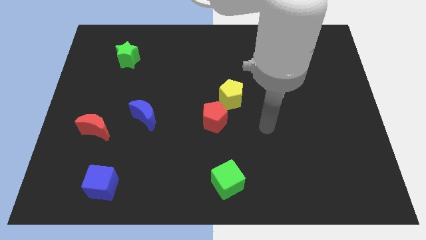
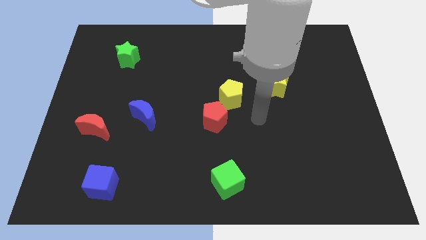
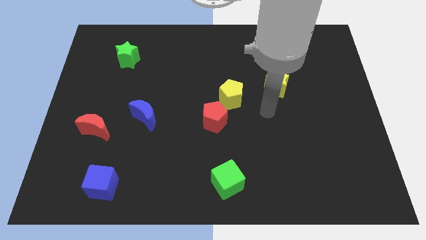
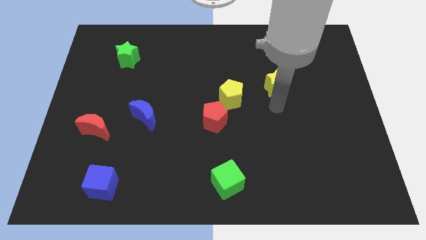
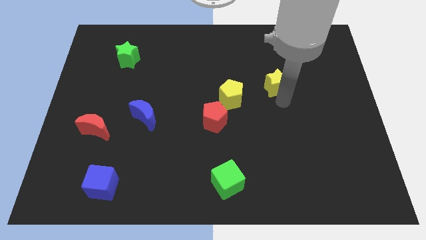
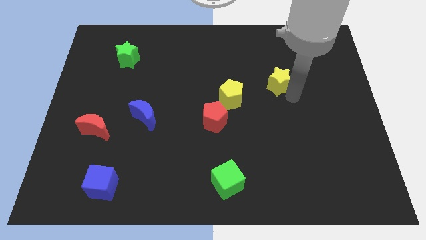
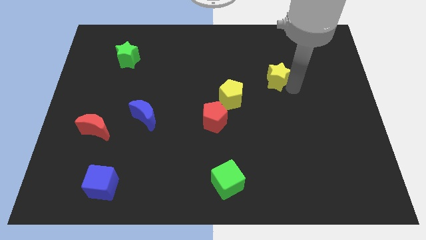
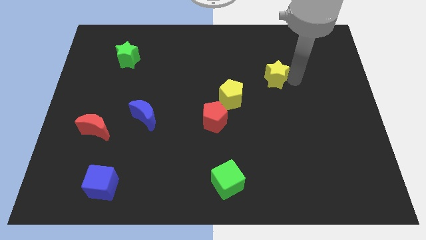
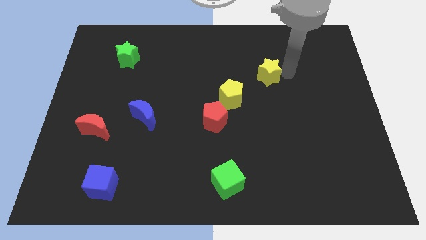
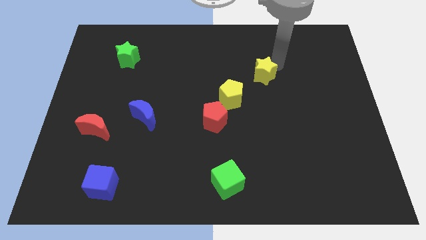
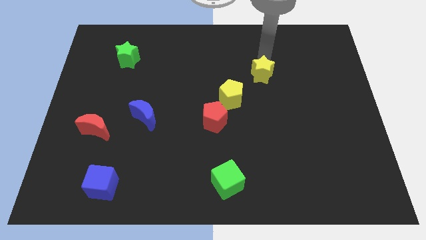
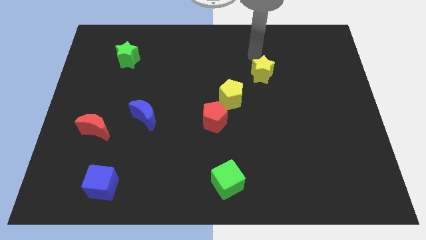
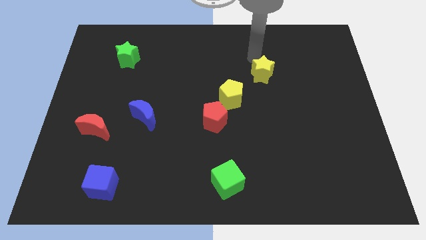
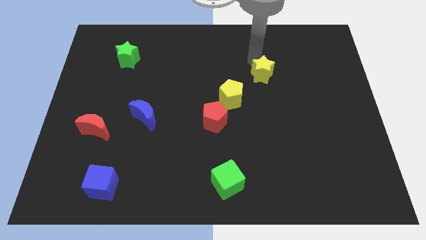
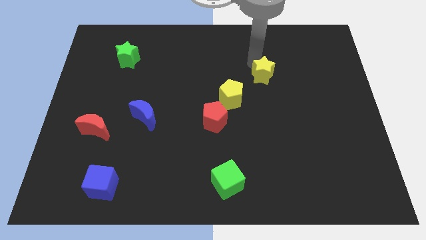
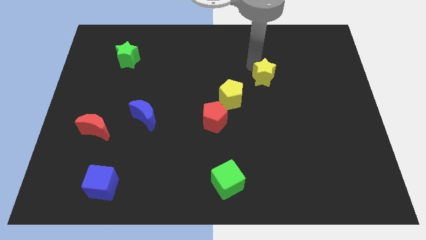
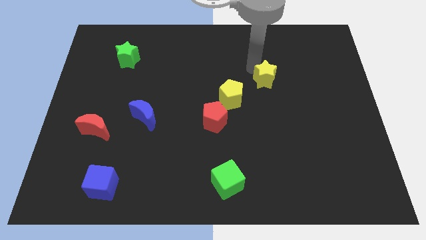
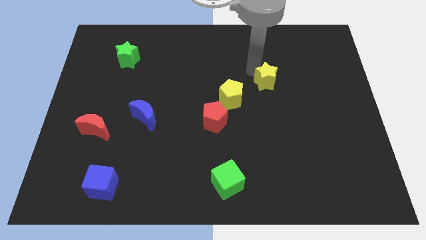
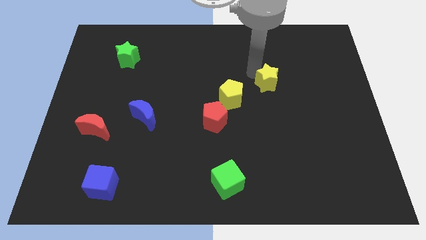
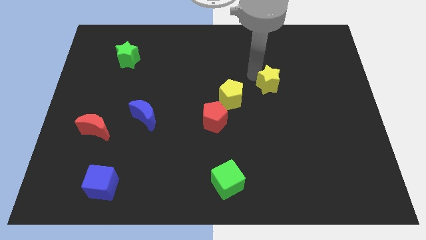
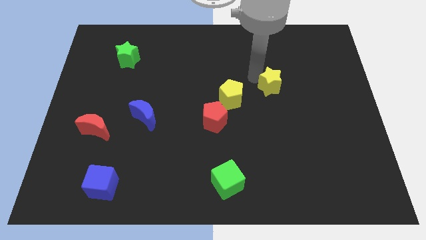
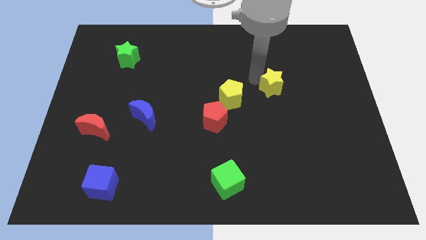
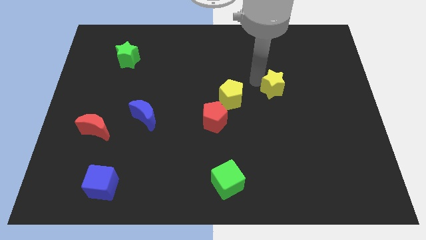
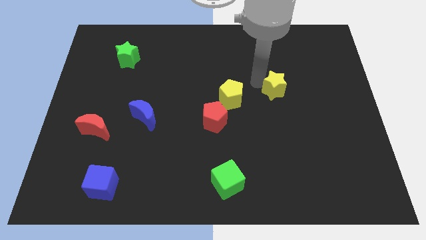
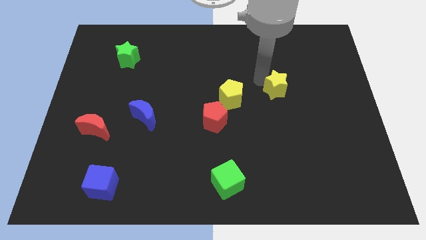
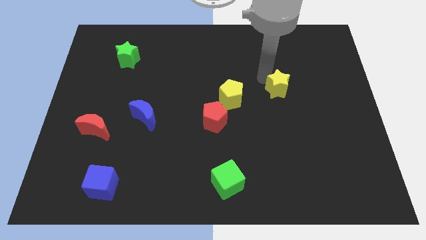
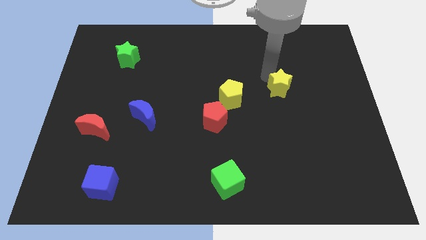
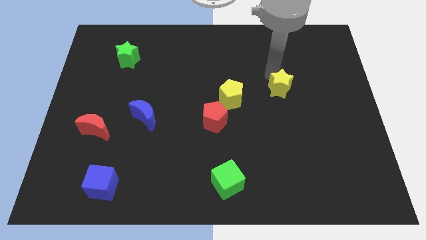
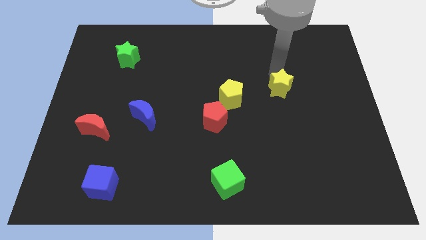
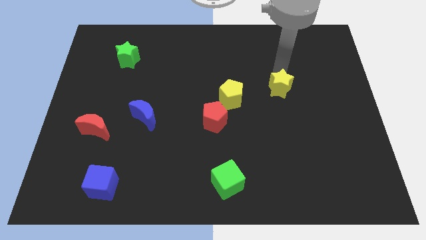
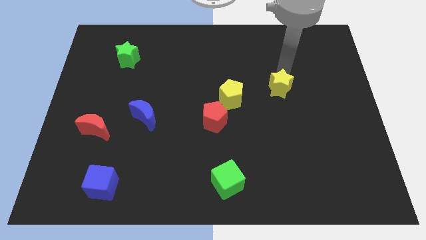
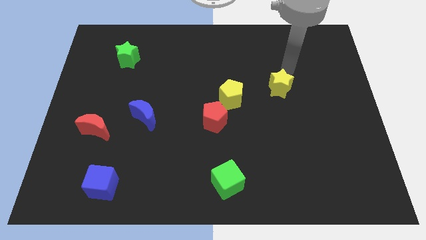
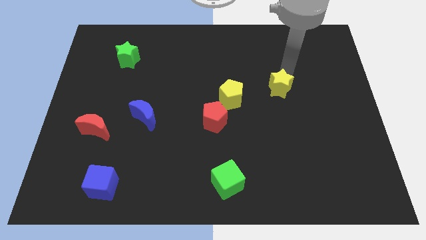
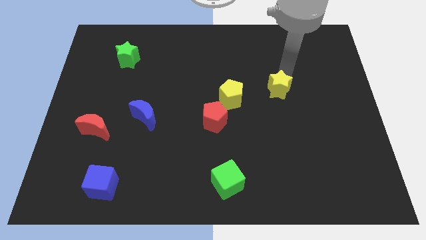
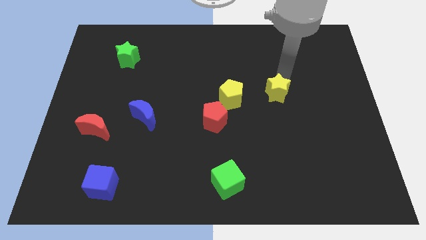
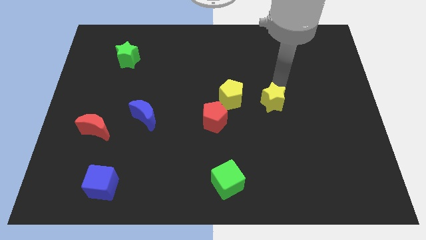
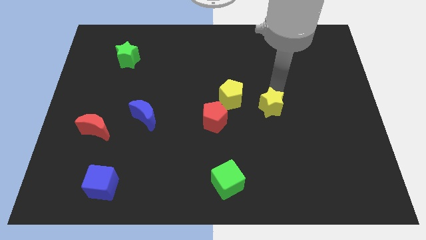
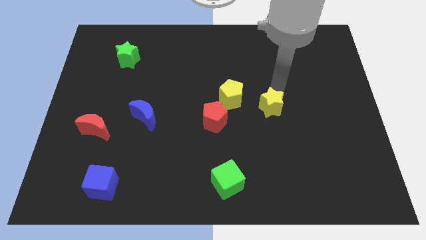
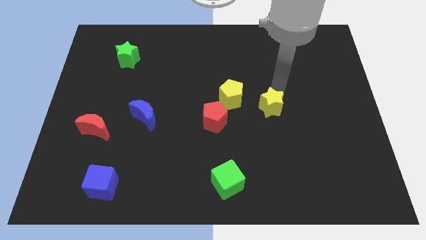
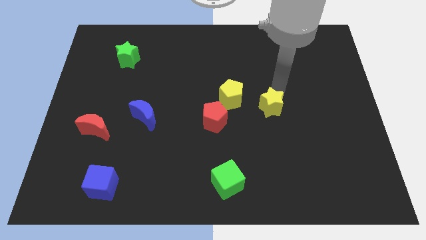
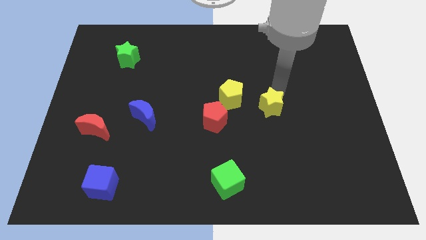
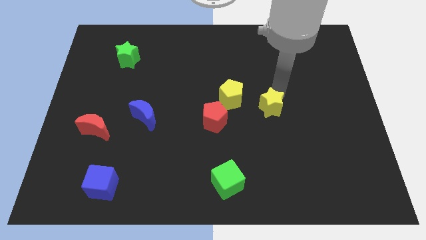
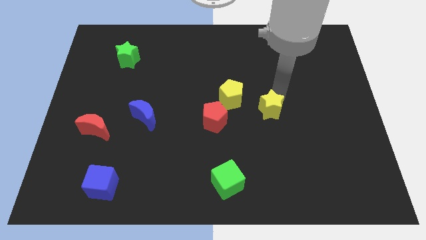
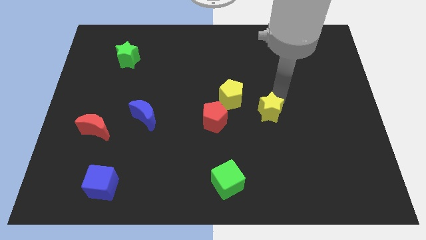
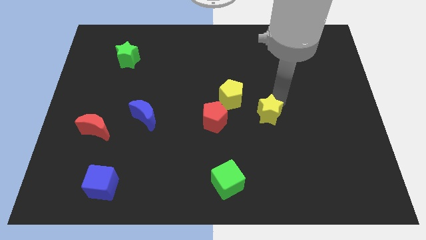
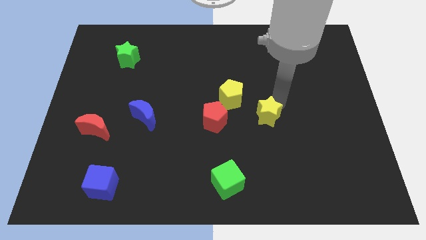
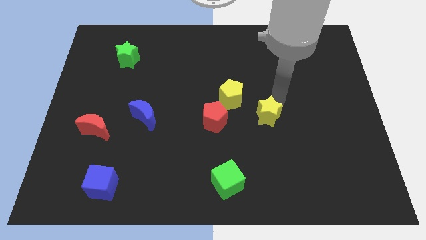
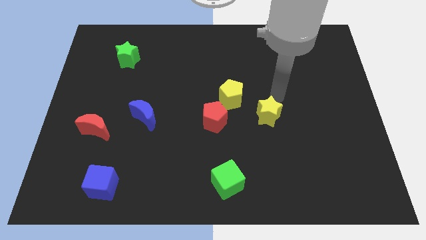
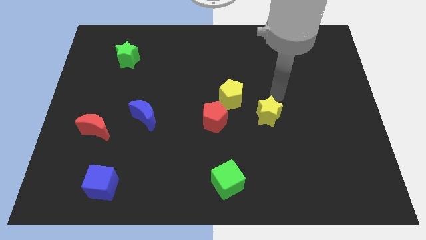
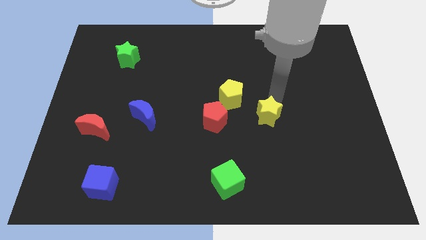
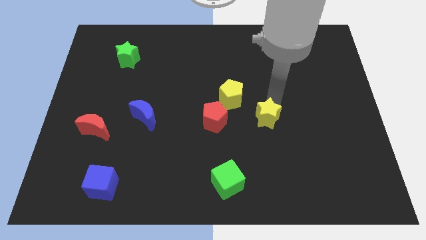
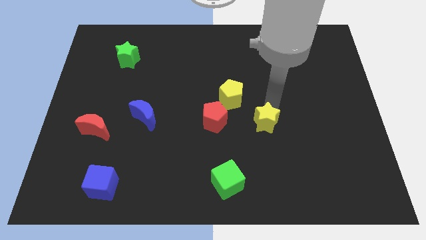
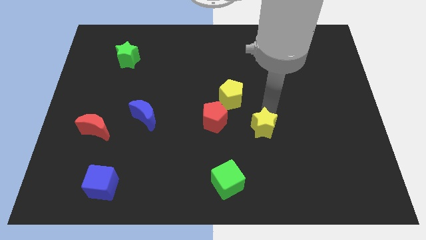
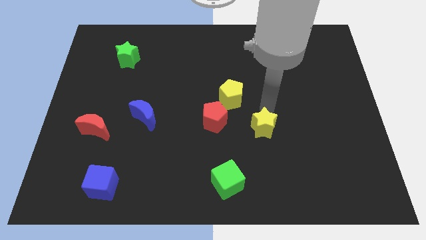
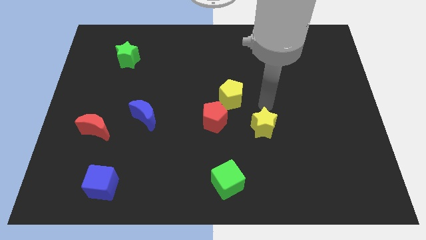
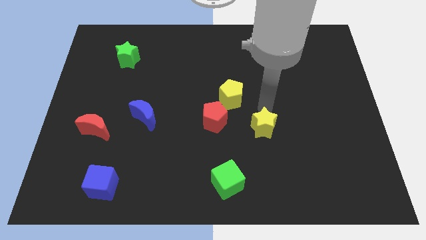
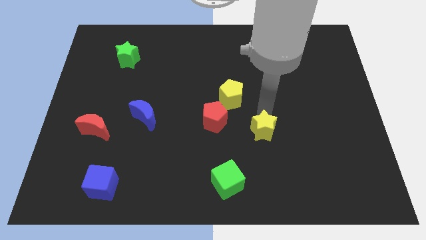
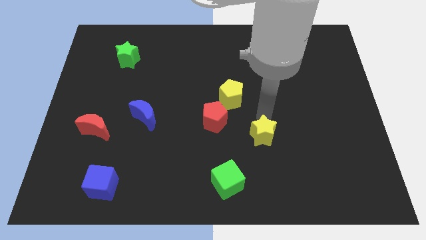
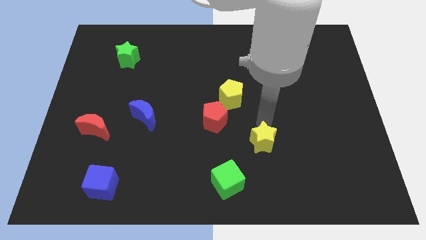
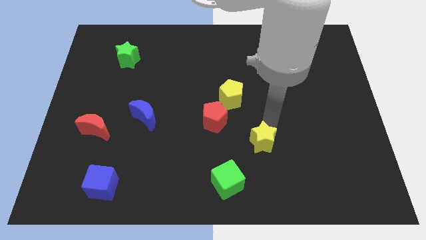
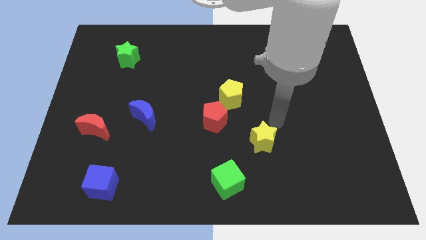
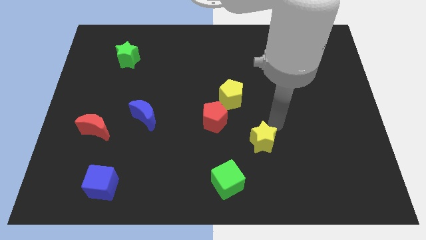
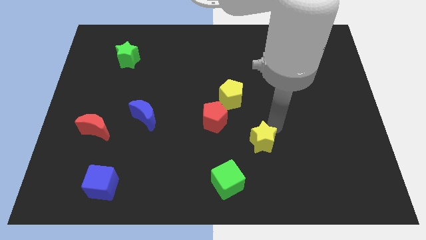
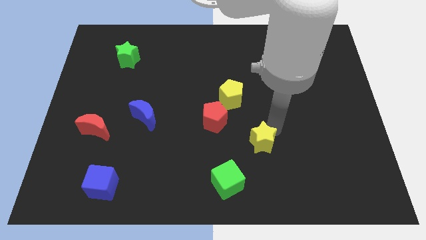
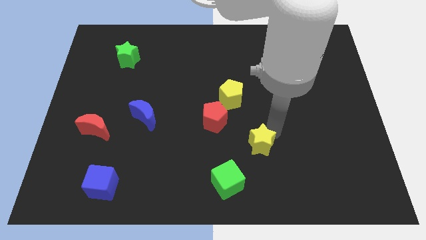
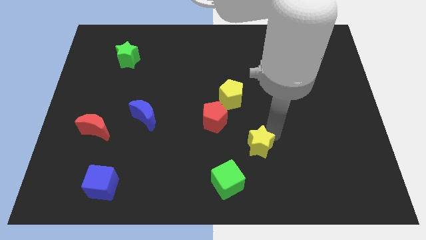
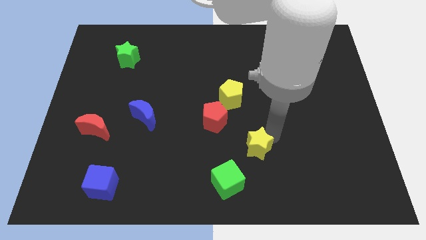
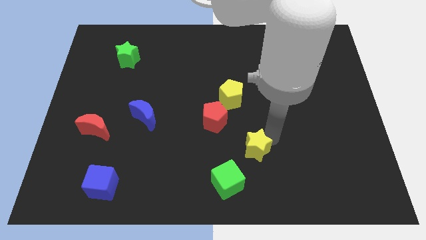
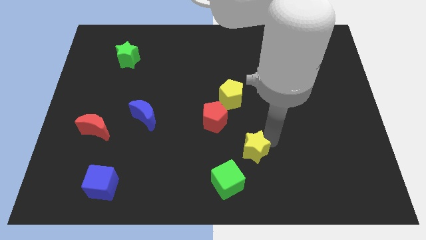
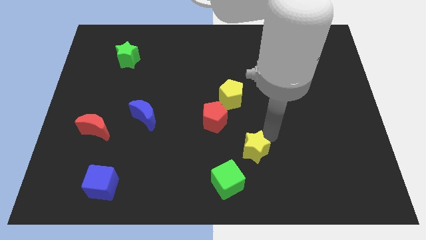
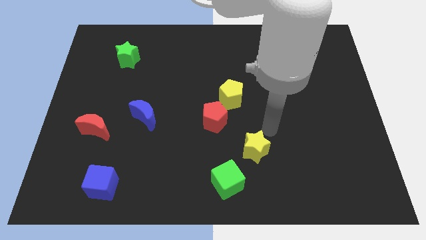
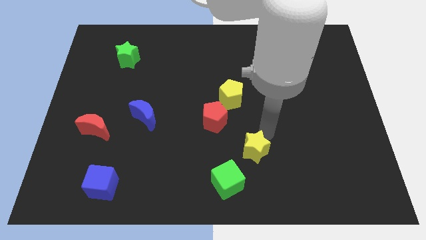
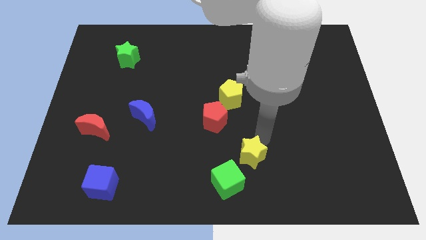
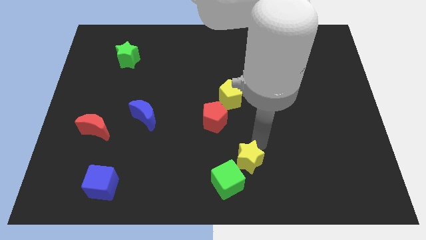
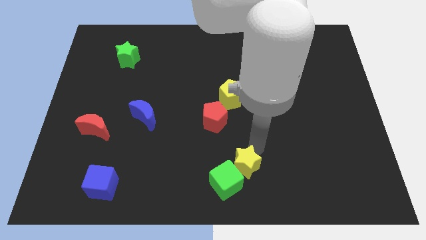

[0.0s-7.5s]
put the yellow star close to the green cube

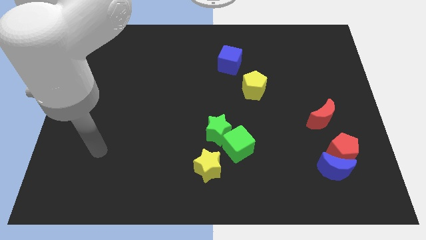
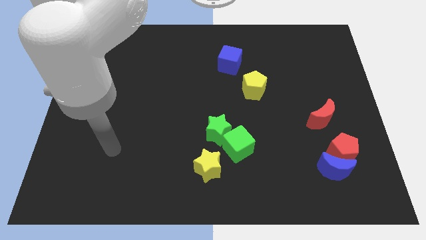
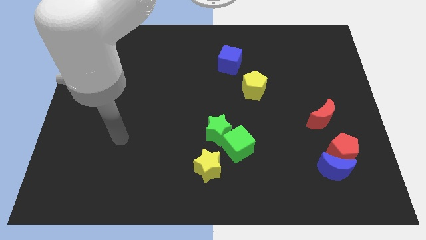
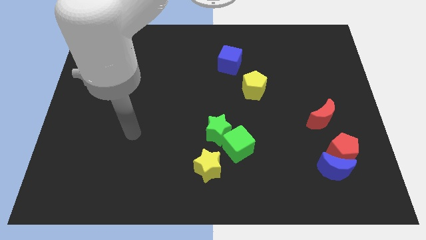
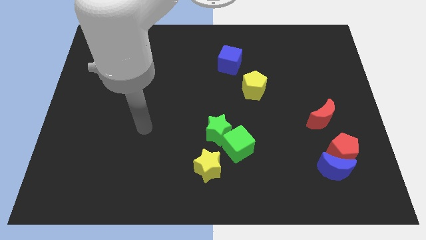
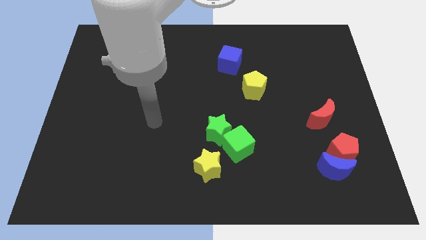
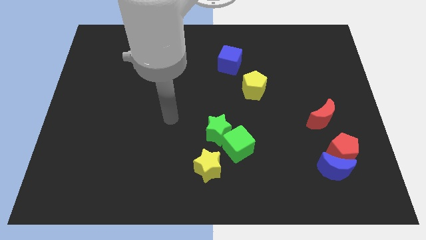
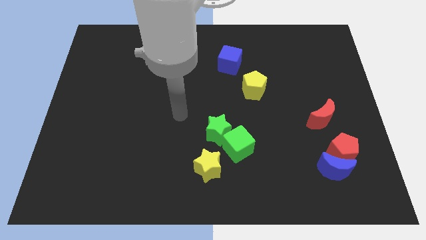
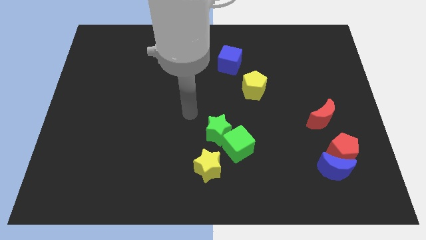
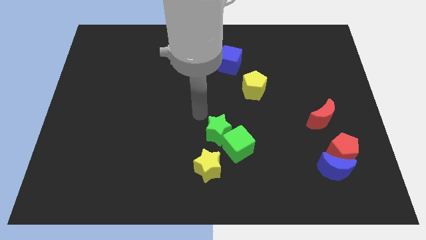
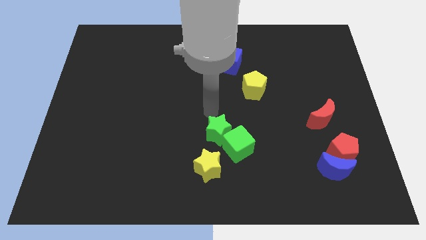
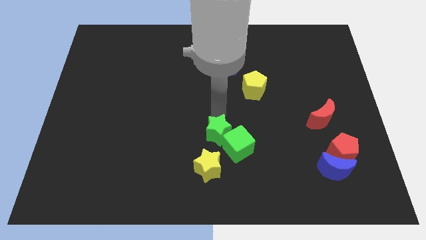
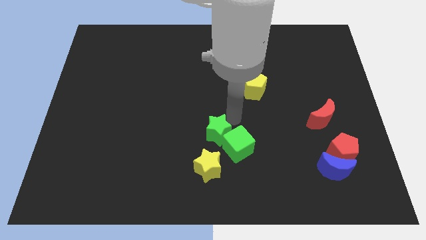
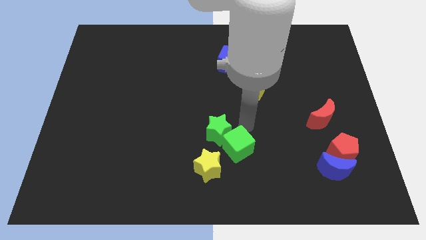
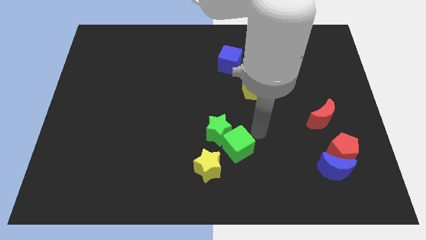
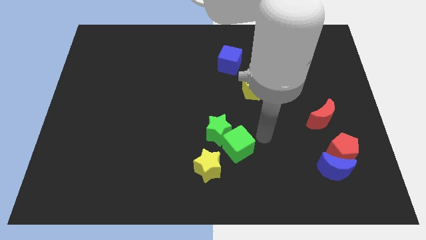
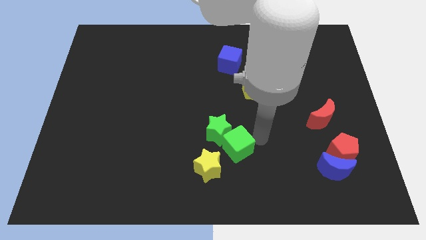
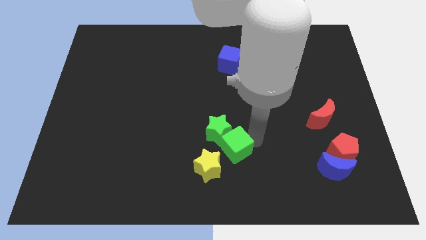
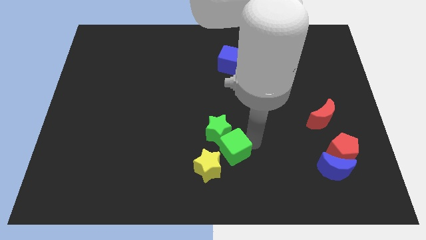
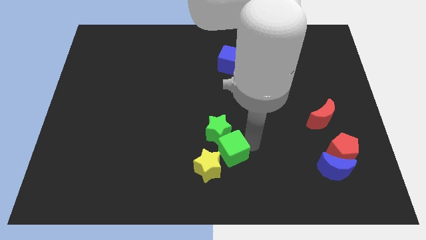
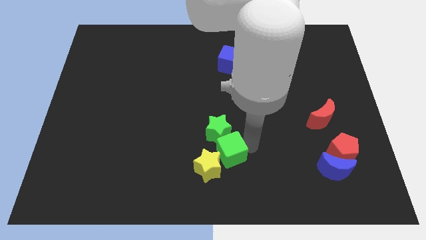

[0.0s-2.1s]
push the green cube close to the yellow star
